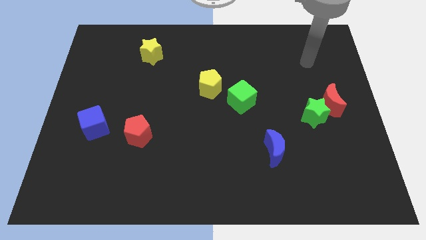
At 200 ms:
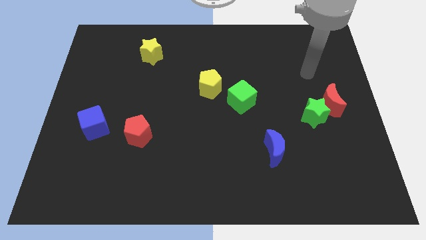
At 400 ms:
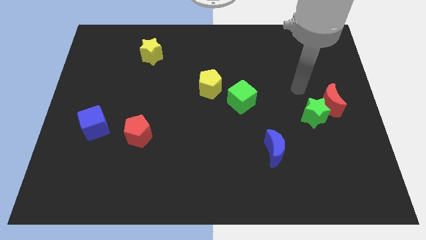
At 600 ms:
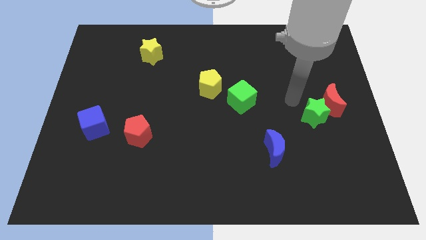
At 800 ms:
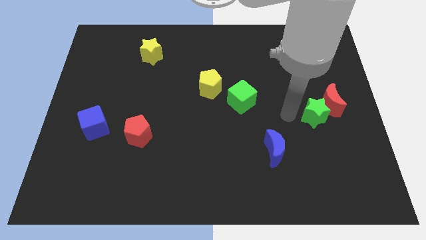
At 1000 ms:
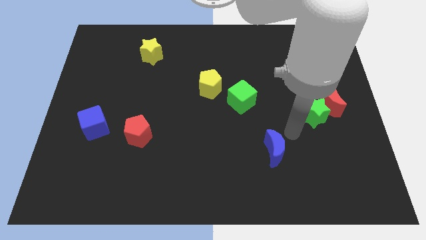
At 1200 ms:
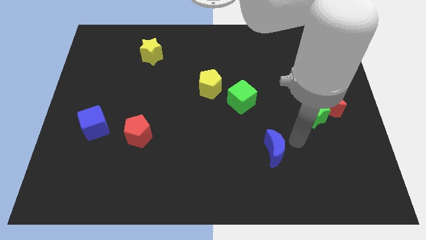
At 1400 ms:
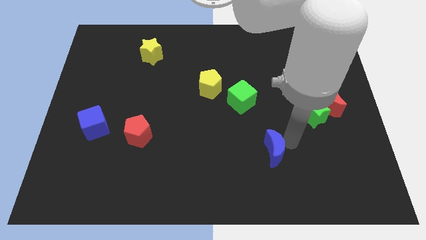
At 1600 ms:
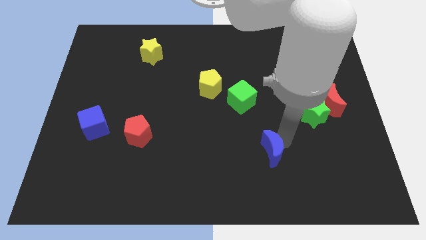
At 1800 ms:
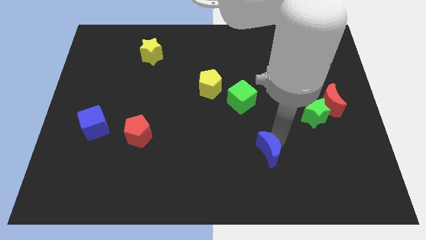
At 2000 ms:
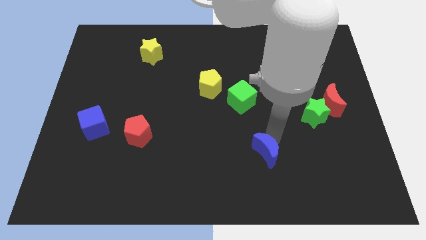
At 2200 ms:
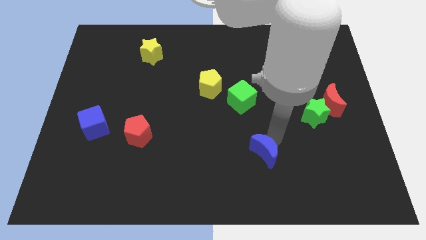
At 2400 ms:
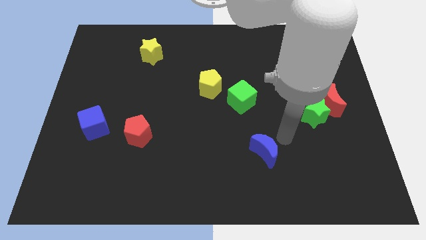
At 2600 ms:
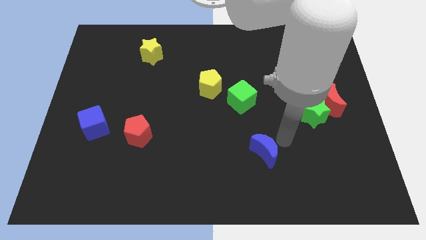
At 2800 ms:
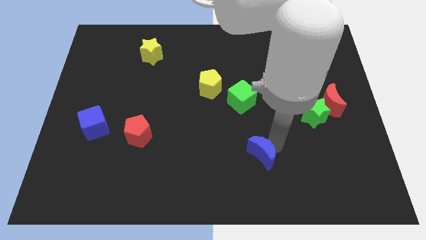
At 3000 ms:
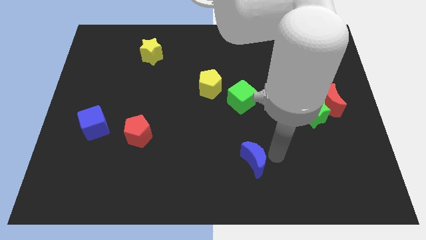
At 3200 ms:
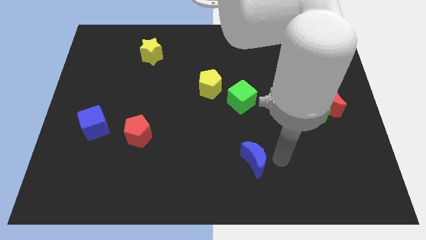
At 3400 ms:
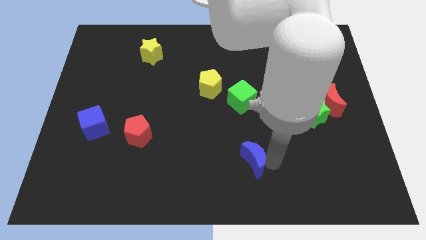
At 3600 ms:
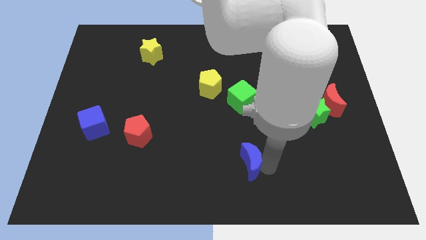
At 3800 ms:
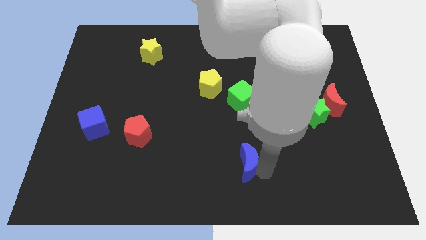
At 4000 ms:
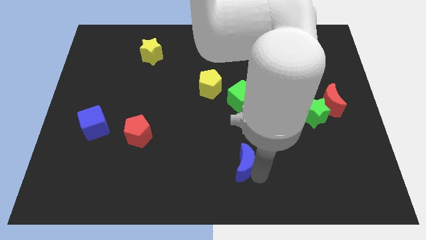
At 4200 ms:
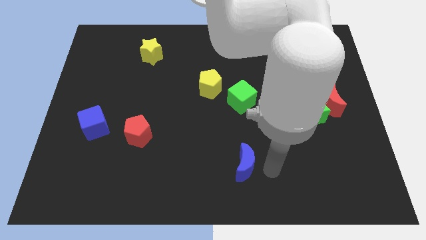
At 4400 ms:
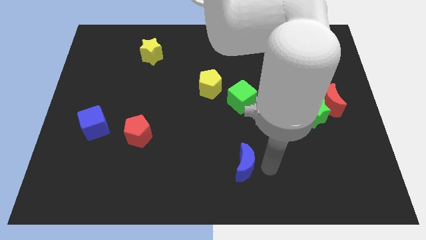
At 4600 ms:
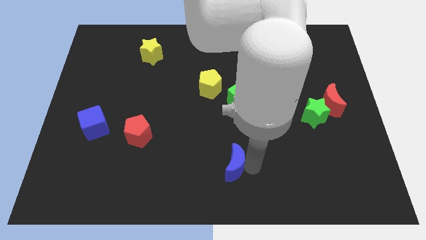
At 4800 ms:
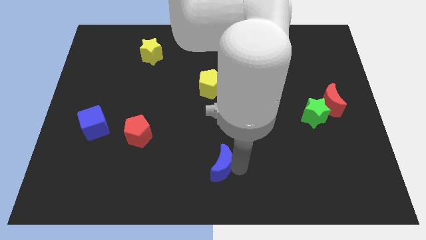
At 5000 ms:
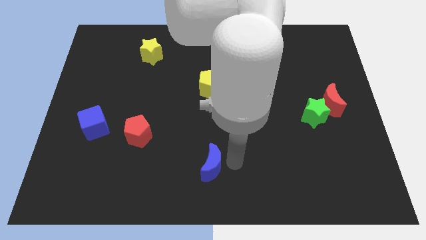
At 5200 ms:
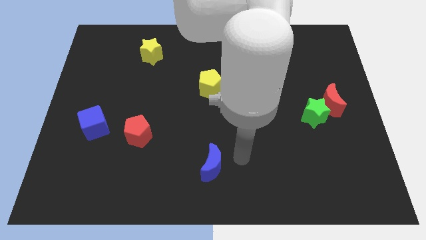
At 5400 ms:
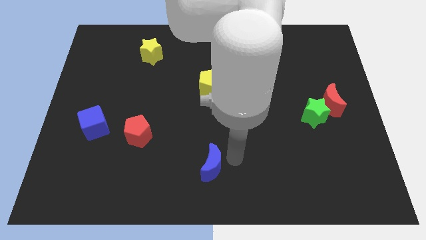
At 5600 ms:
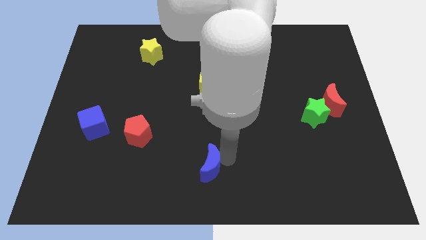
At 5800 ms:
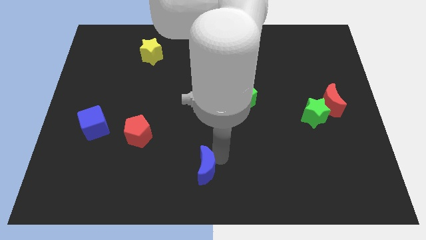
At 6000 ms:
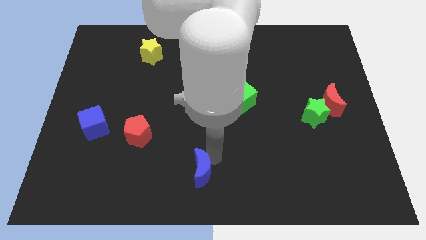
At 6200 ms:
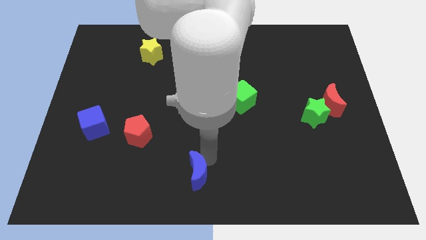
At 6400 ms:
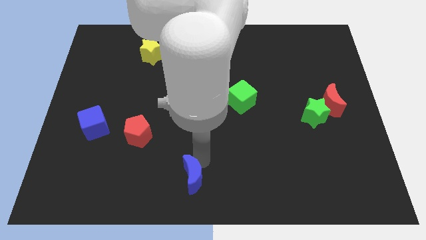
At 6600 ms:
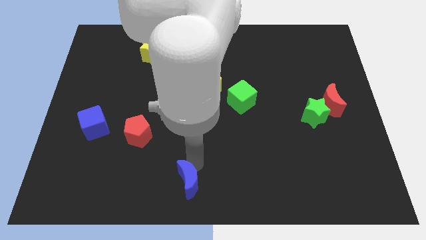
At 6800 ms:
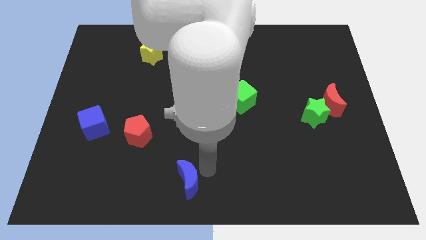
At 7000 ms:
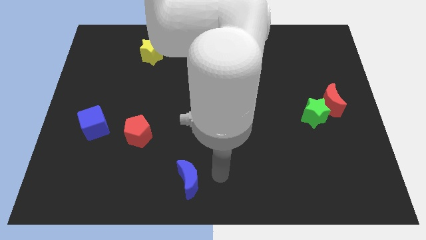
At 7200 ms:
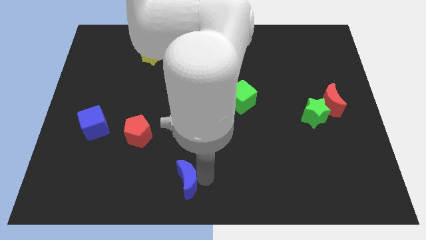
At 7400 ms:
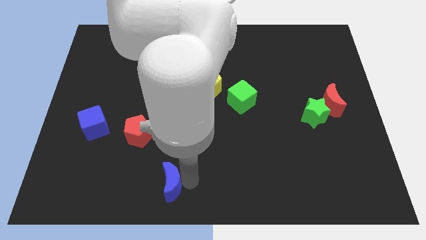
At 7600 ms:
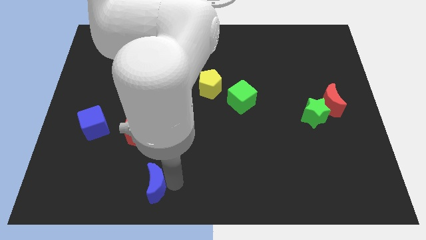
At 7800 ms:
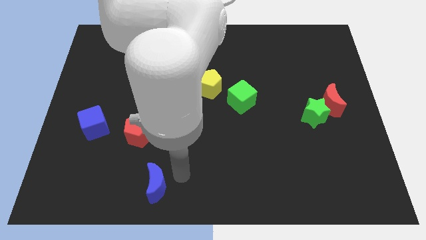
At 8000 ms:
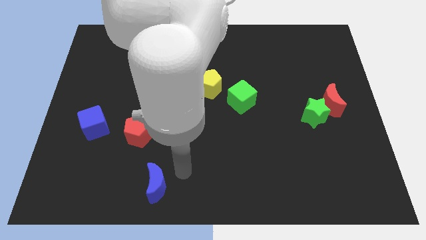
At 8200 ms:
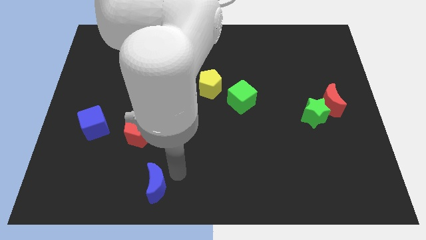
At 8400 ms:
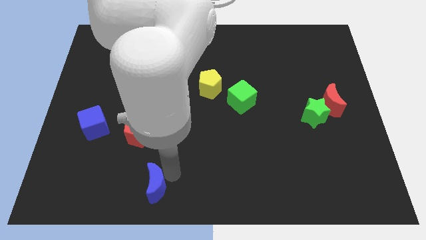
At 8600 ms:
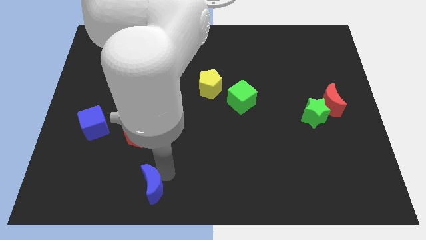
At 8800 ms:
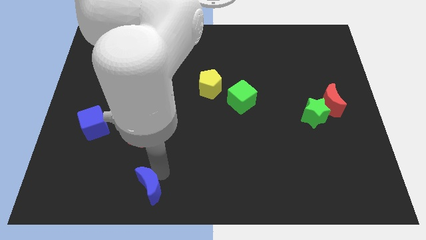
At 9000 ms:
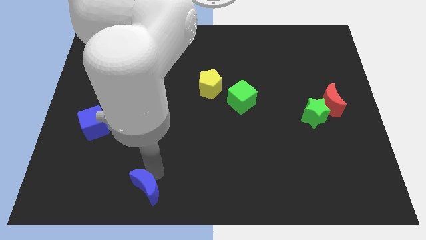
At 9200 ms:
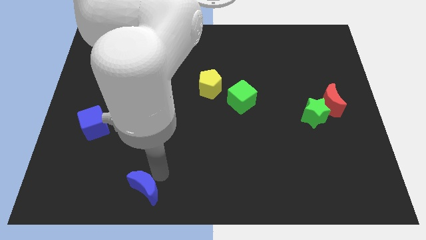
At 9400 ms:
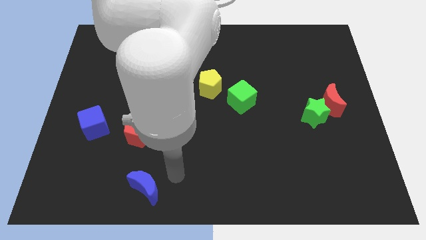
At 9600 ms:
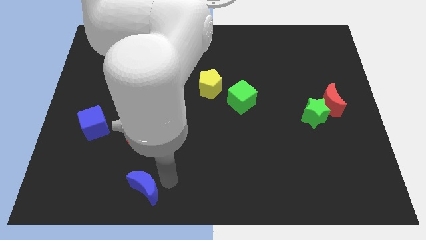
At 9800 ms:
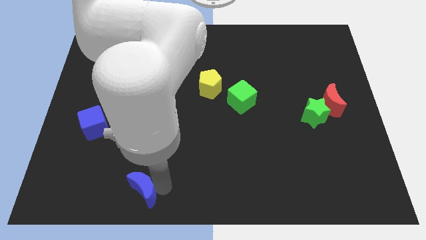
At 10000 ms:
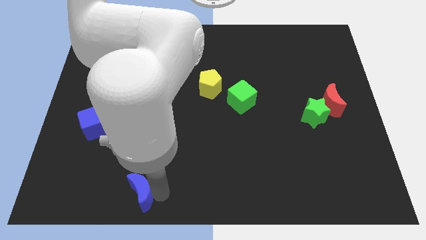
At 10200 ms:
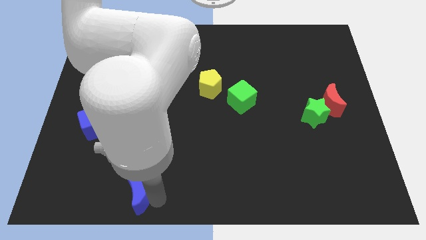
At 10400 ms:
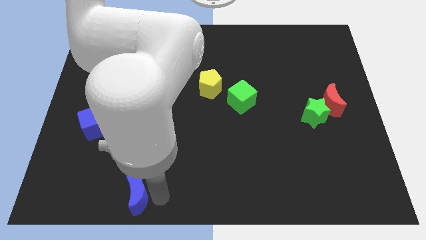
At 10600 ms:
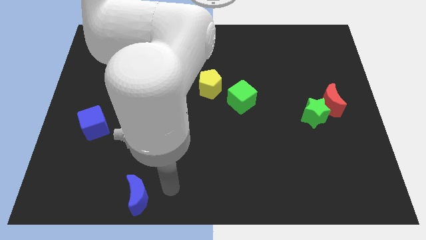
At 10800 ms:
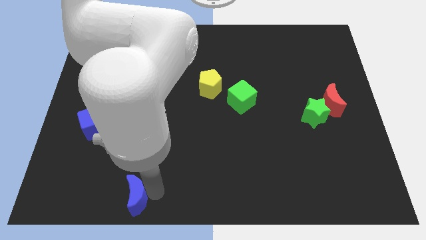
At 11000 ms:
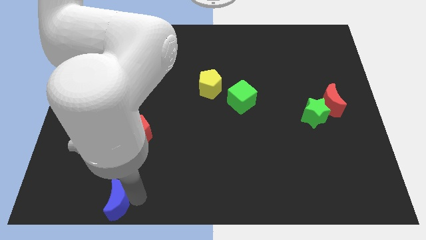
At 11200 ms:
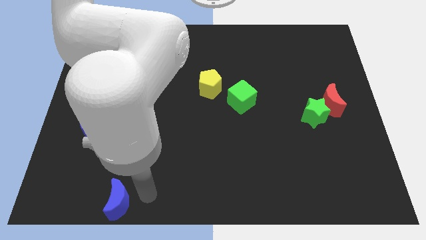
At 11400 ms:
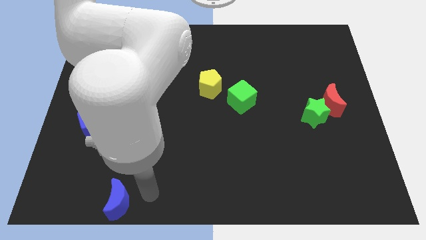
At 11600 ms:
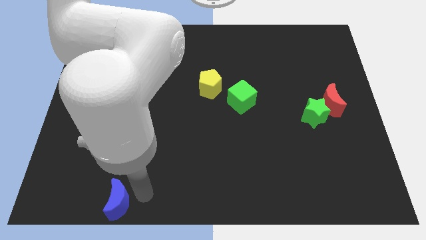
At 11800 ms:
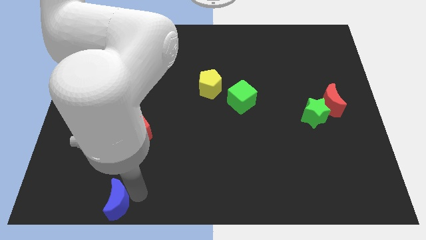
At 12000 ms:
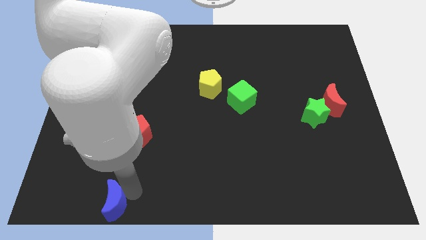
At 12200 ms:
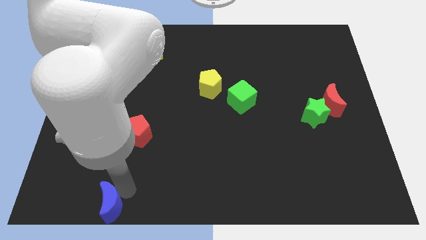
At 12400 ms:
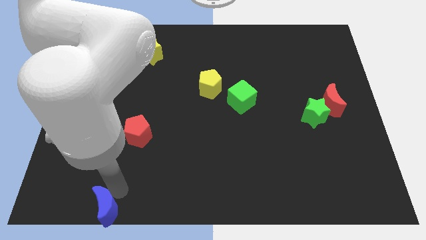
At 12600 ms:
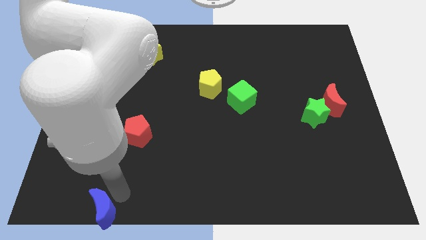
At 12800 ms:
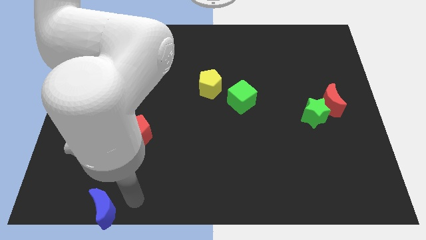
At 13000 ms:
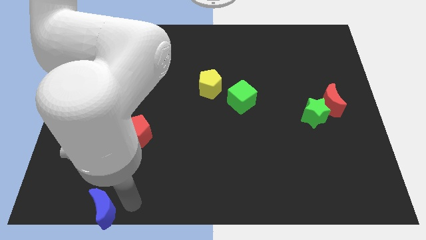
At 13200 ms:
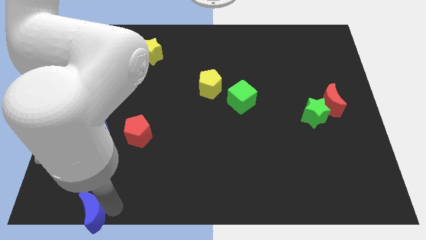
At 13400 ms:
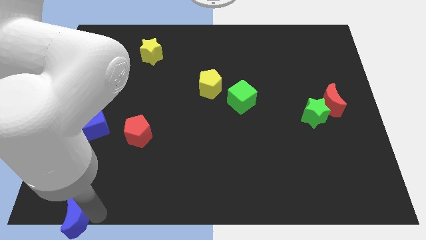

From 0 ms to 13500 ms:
slide the blue moon to the lower left corner
